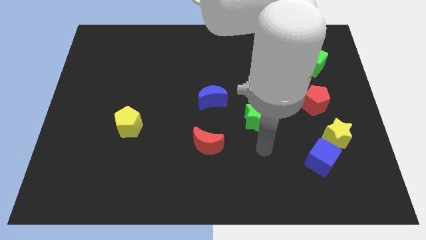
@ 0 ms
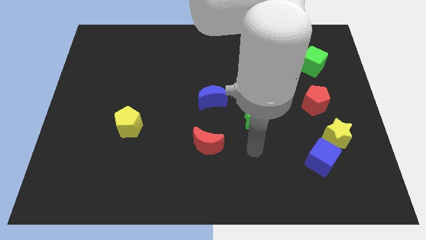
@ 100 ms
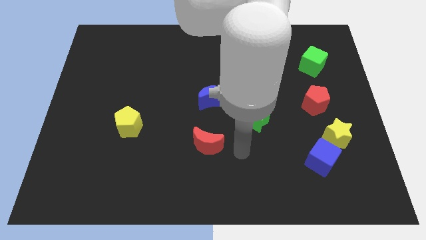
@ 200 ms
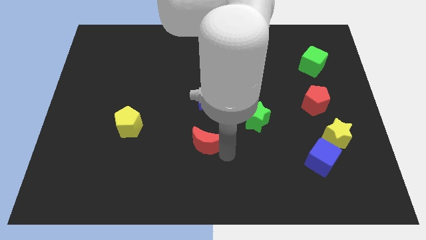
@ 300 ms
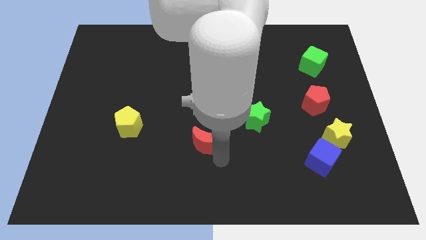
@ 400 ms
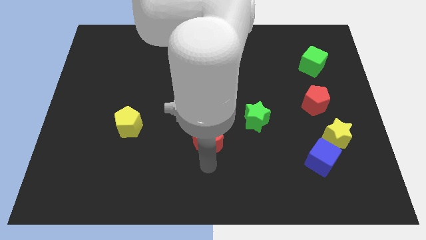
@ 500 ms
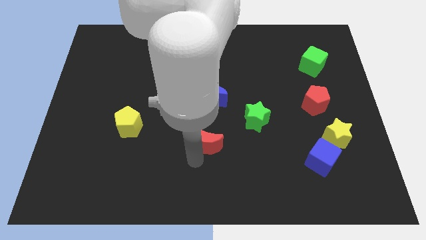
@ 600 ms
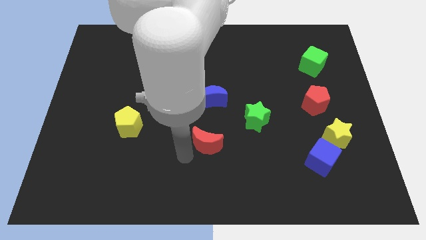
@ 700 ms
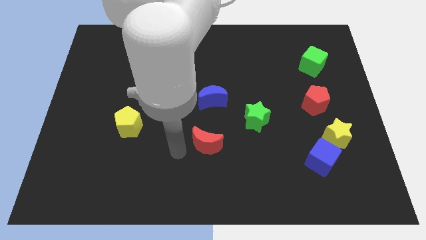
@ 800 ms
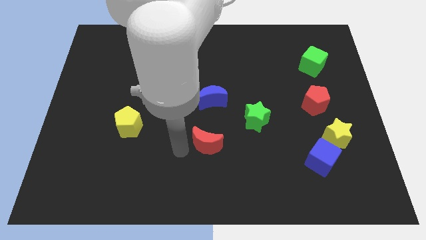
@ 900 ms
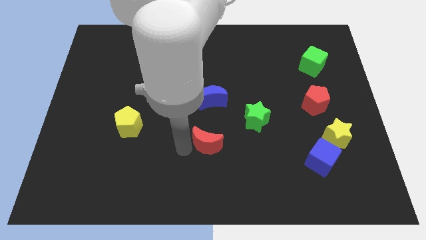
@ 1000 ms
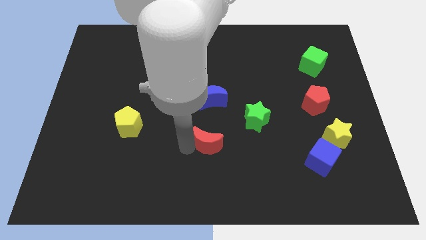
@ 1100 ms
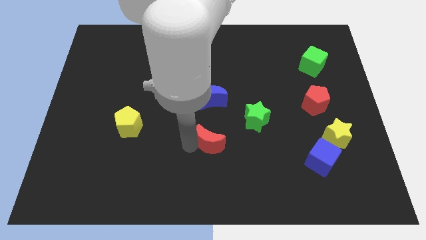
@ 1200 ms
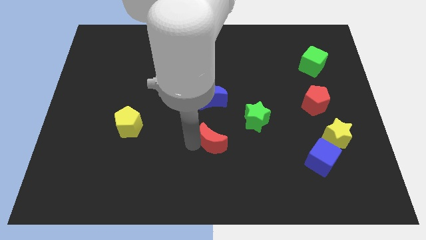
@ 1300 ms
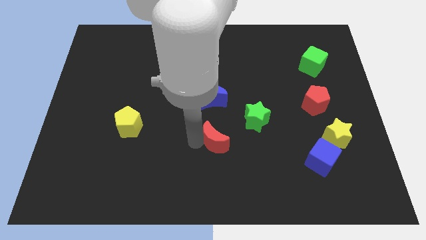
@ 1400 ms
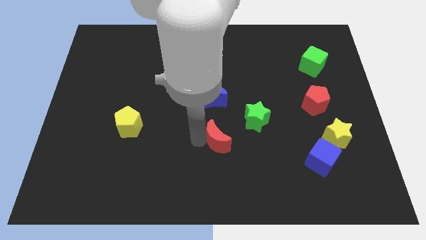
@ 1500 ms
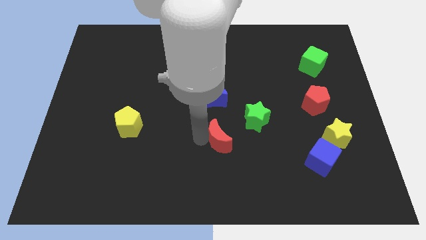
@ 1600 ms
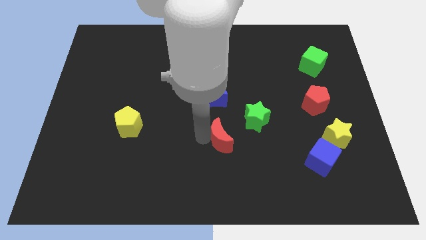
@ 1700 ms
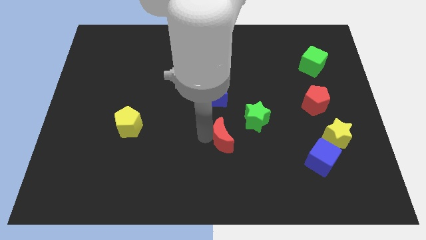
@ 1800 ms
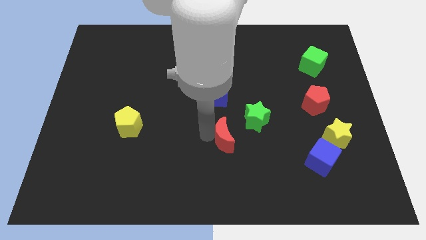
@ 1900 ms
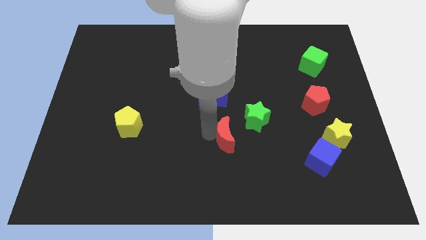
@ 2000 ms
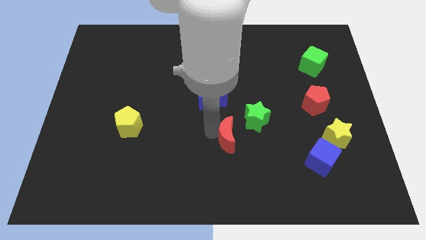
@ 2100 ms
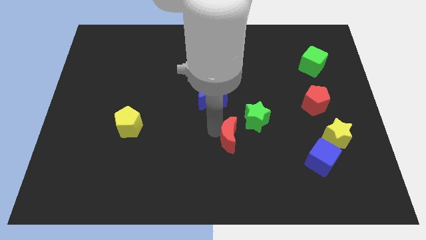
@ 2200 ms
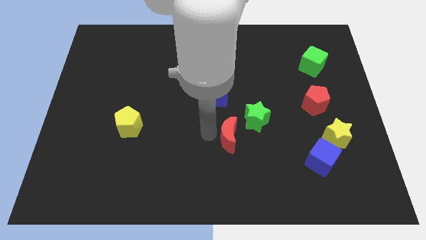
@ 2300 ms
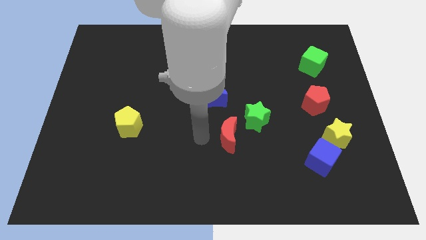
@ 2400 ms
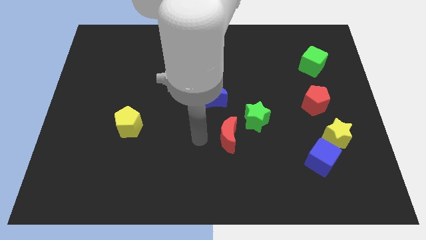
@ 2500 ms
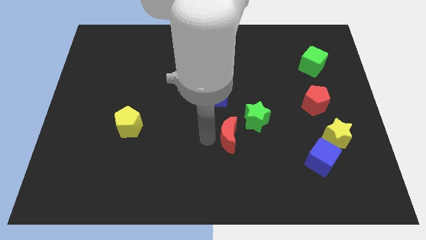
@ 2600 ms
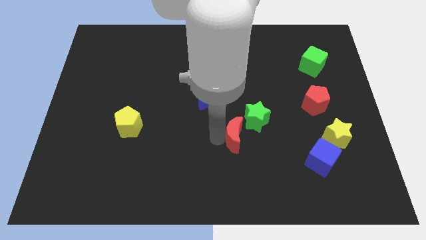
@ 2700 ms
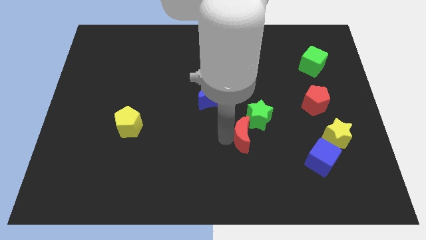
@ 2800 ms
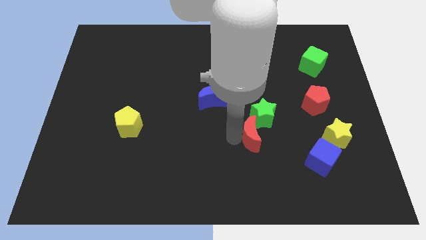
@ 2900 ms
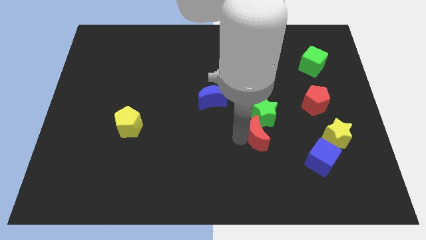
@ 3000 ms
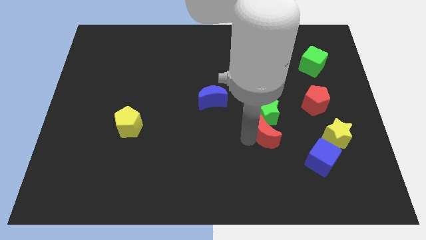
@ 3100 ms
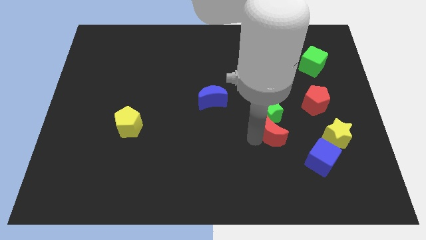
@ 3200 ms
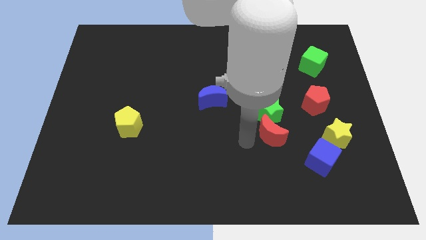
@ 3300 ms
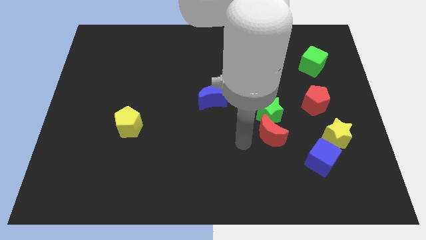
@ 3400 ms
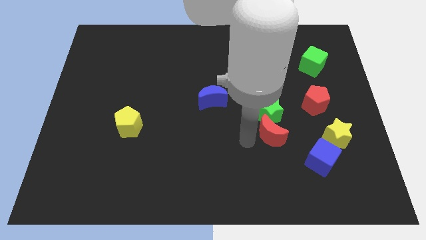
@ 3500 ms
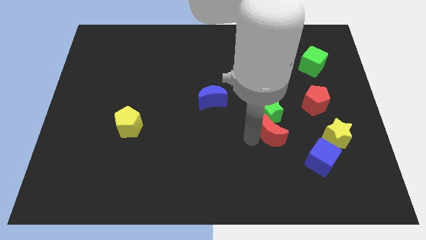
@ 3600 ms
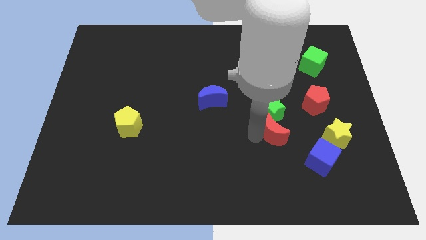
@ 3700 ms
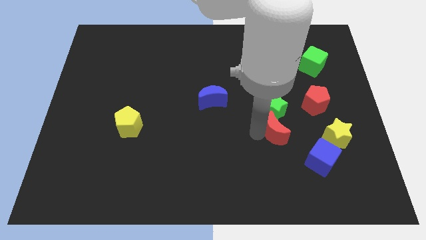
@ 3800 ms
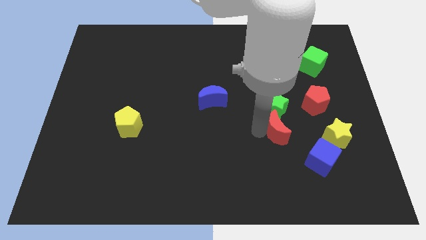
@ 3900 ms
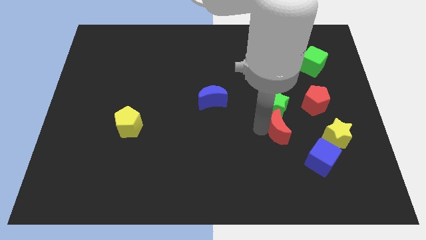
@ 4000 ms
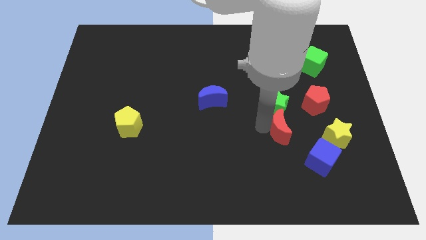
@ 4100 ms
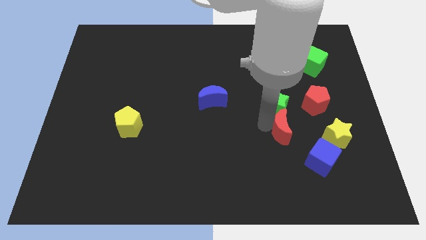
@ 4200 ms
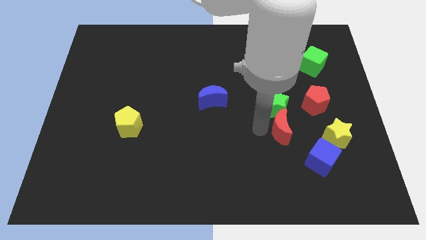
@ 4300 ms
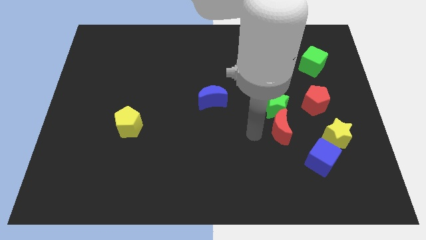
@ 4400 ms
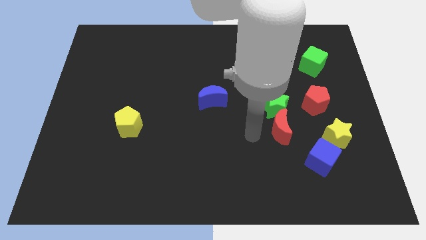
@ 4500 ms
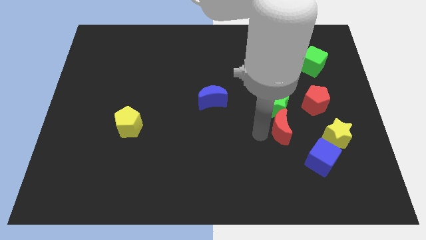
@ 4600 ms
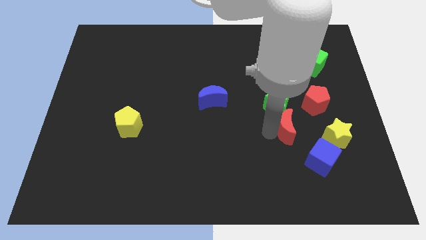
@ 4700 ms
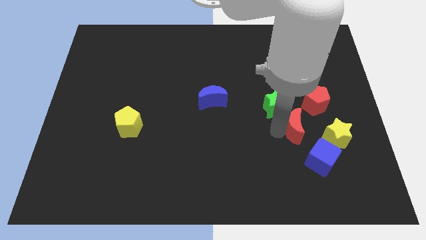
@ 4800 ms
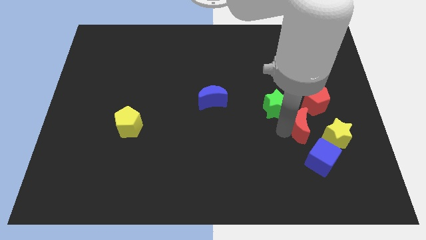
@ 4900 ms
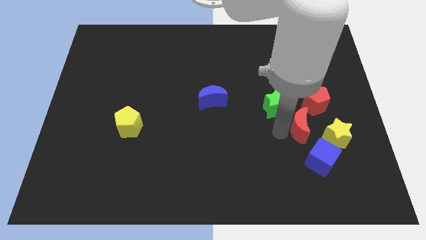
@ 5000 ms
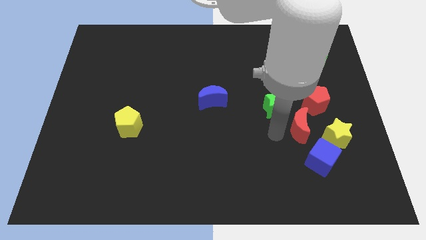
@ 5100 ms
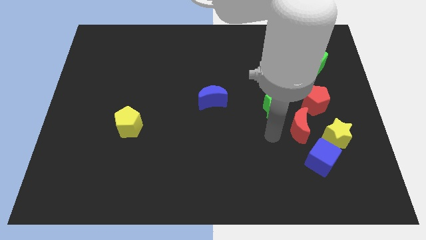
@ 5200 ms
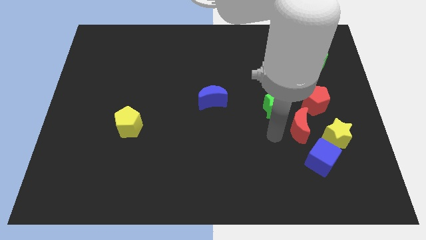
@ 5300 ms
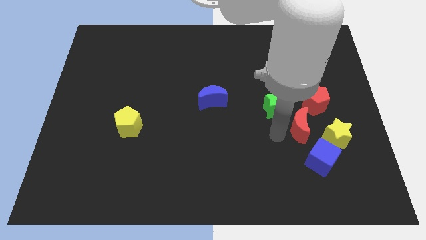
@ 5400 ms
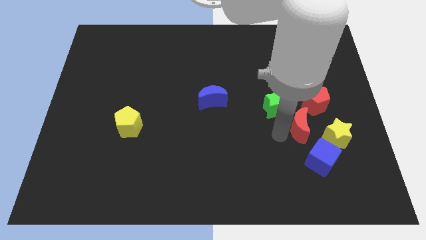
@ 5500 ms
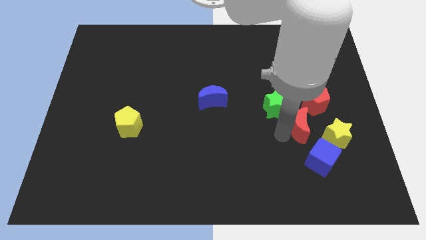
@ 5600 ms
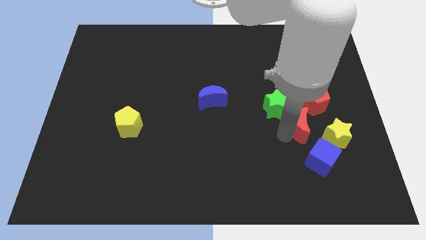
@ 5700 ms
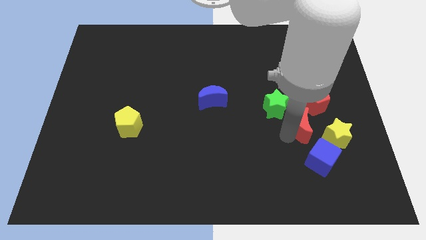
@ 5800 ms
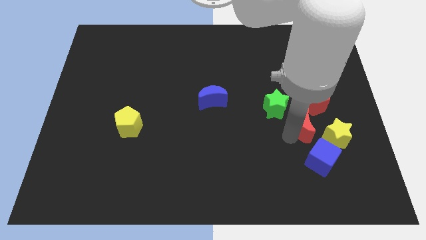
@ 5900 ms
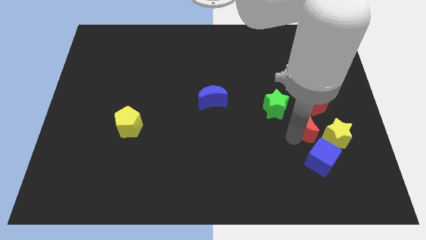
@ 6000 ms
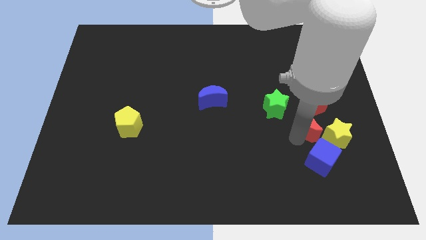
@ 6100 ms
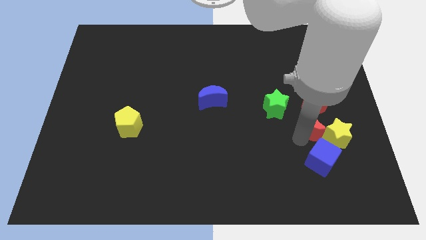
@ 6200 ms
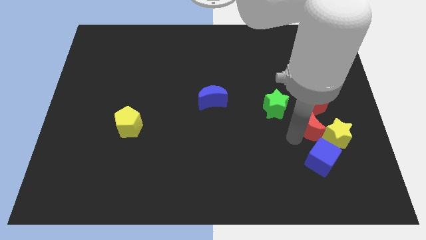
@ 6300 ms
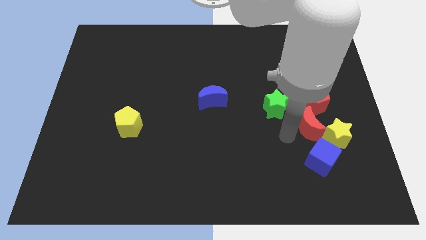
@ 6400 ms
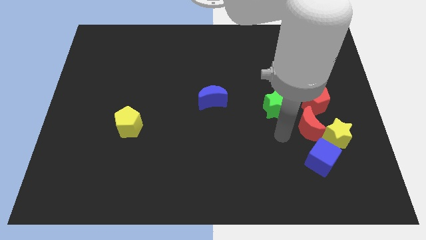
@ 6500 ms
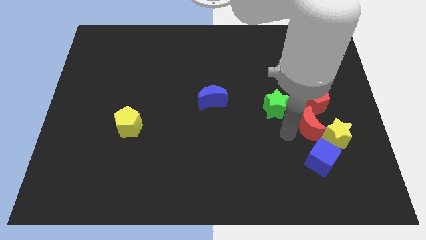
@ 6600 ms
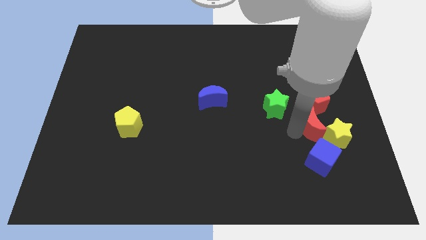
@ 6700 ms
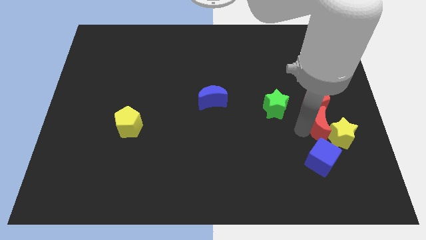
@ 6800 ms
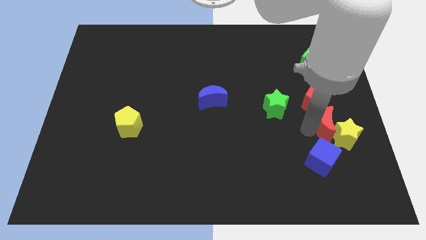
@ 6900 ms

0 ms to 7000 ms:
push the red moon to the top right of the blue cube

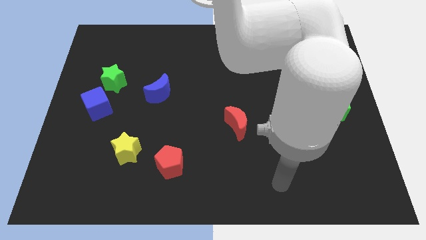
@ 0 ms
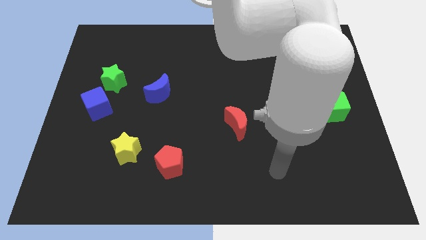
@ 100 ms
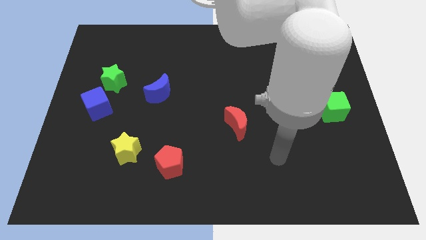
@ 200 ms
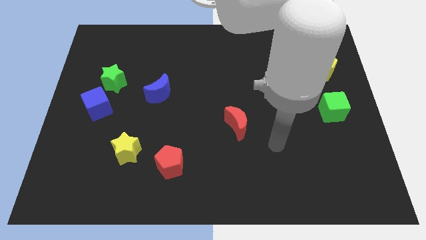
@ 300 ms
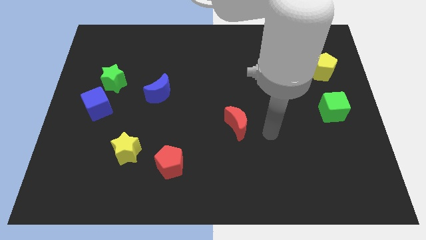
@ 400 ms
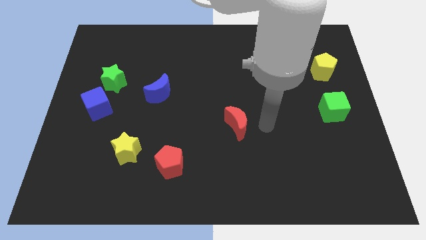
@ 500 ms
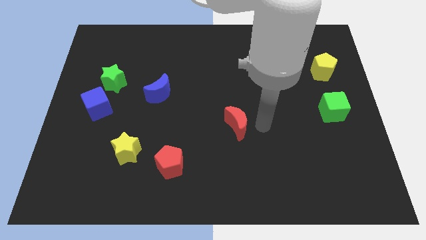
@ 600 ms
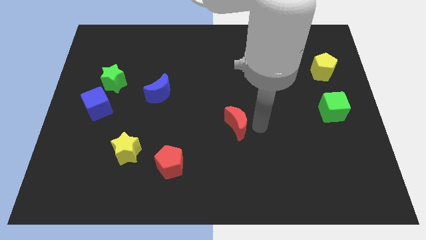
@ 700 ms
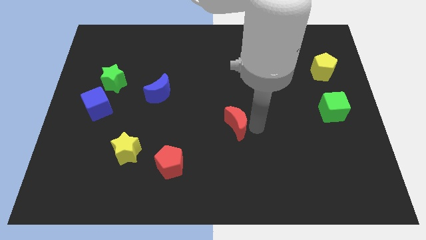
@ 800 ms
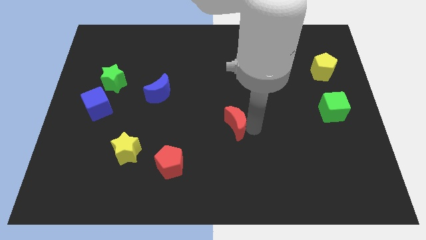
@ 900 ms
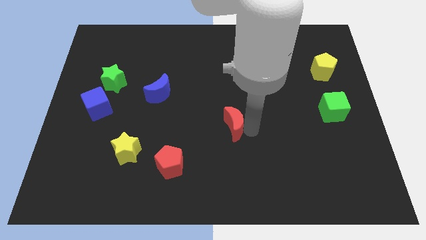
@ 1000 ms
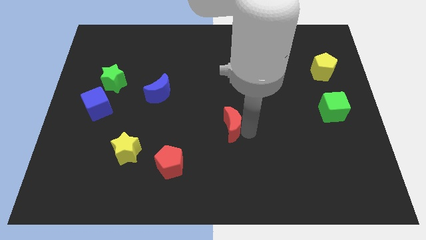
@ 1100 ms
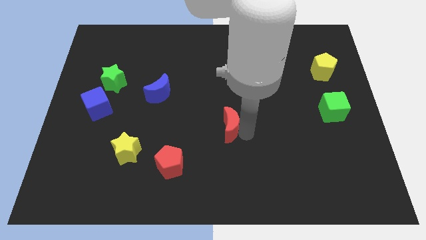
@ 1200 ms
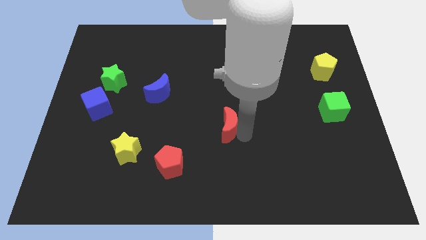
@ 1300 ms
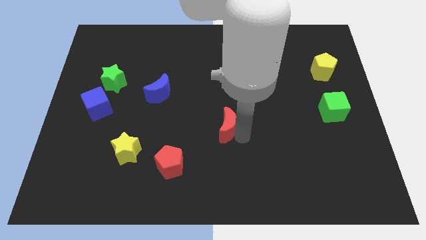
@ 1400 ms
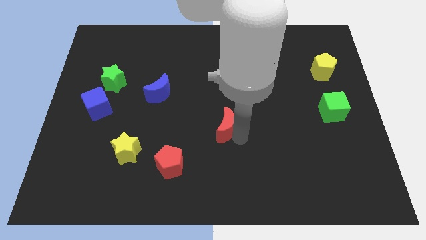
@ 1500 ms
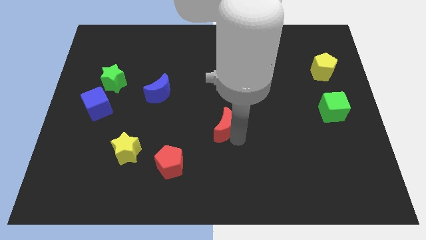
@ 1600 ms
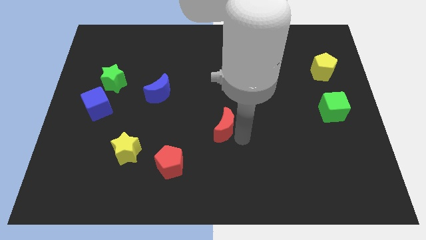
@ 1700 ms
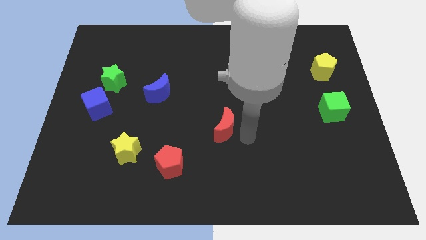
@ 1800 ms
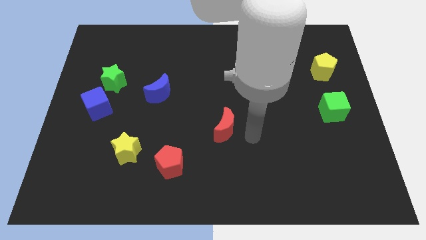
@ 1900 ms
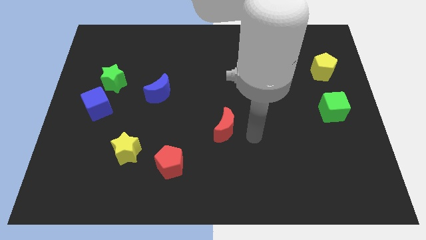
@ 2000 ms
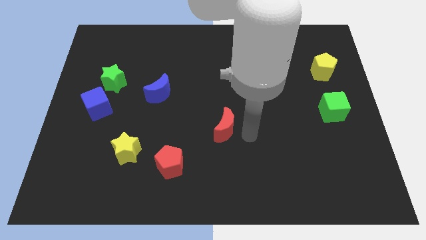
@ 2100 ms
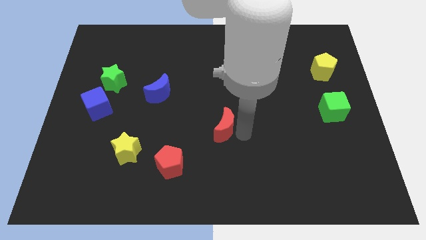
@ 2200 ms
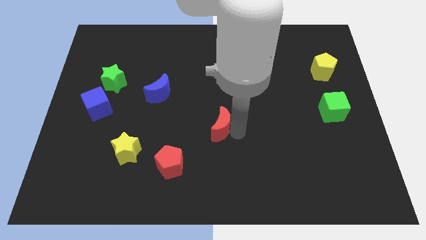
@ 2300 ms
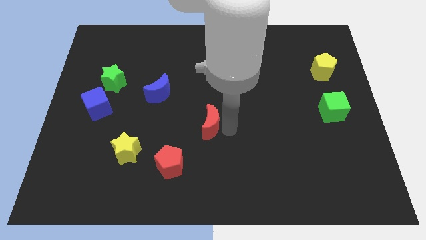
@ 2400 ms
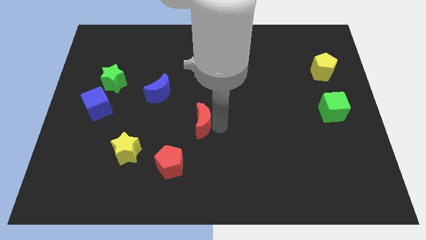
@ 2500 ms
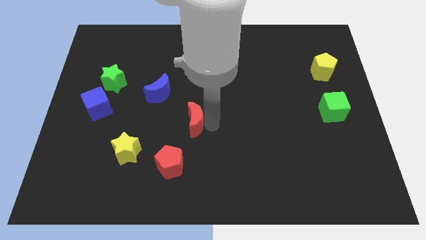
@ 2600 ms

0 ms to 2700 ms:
put the red moon to the top of the red pentagon
